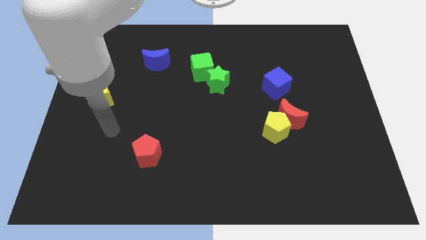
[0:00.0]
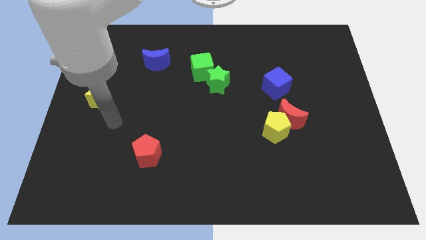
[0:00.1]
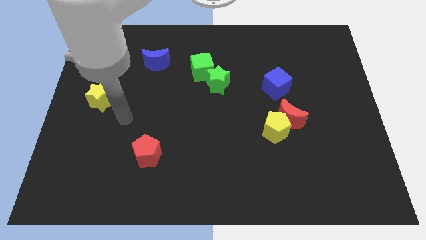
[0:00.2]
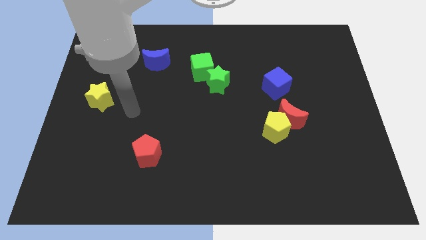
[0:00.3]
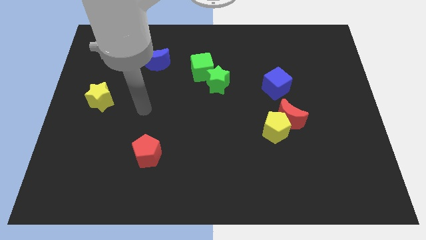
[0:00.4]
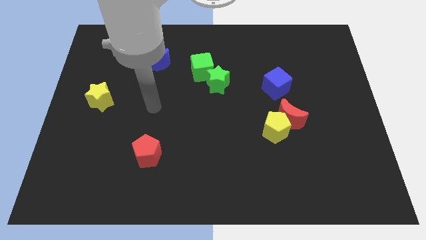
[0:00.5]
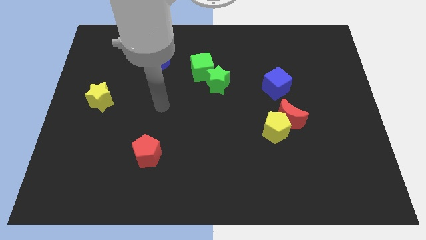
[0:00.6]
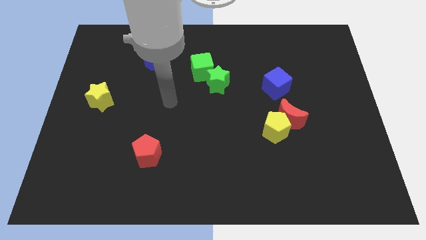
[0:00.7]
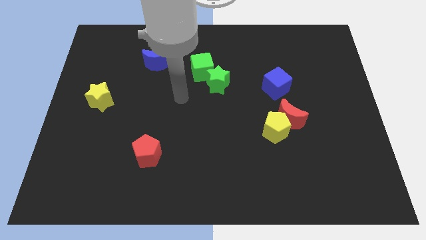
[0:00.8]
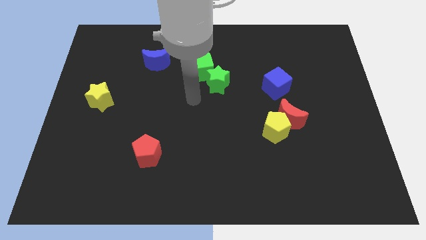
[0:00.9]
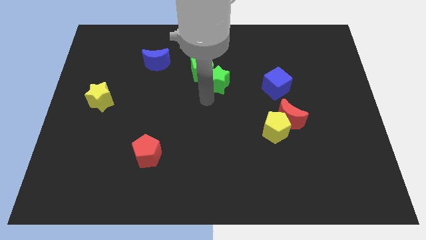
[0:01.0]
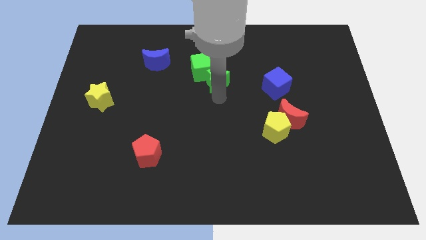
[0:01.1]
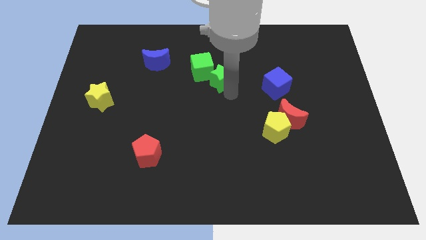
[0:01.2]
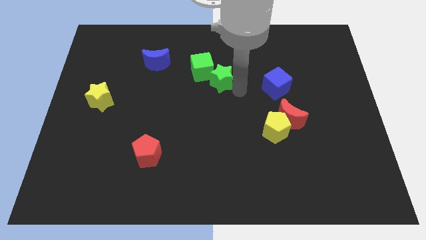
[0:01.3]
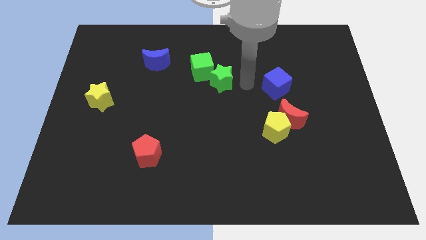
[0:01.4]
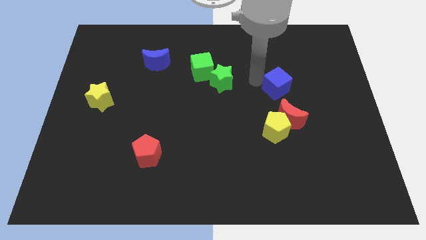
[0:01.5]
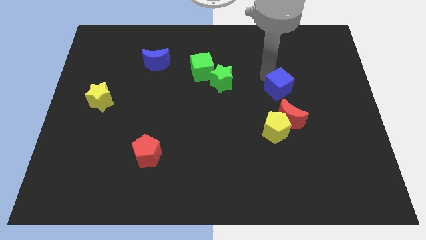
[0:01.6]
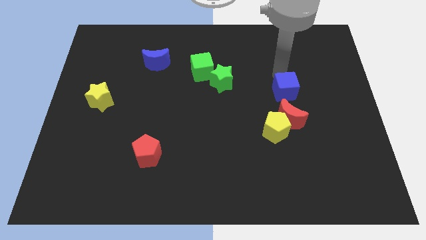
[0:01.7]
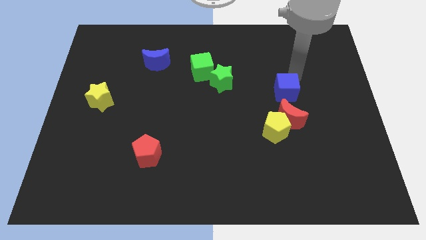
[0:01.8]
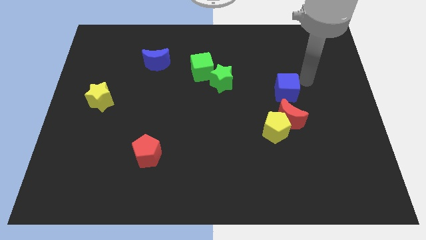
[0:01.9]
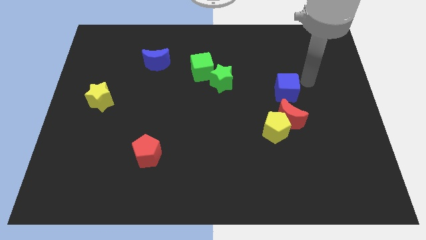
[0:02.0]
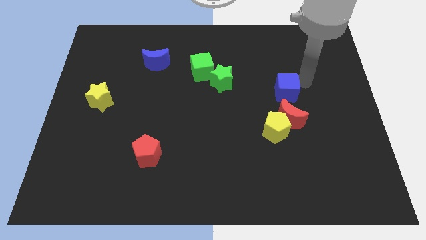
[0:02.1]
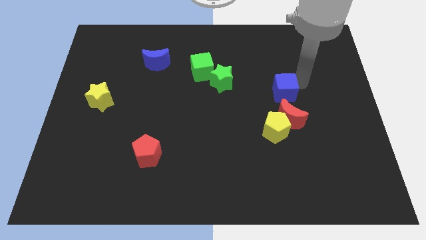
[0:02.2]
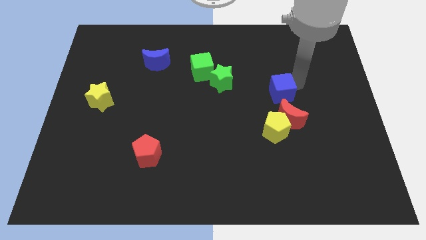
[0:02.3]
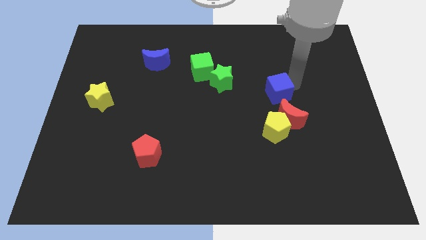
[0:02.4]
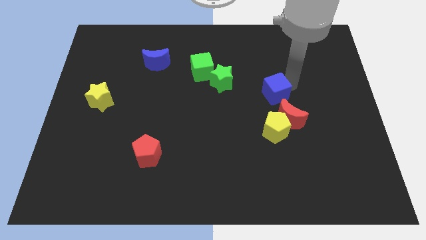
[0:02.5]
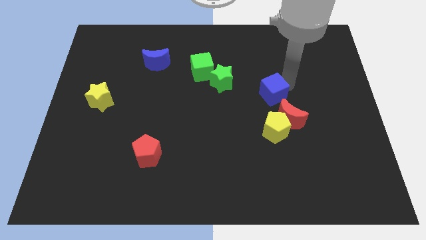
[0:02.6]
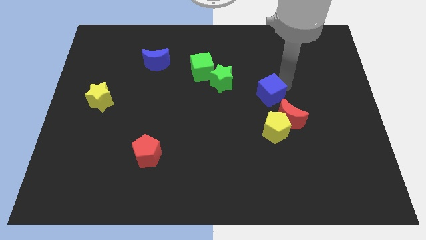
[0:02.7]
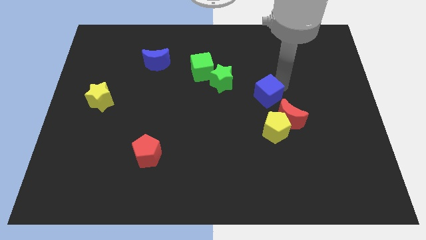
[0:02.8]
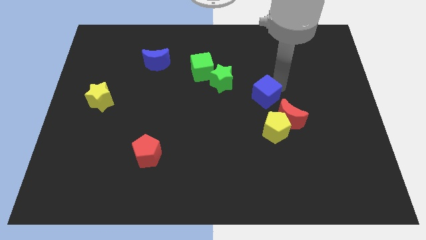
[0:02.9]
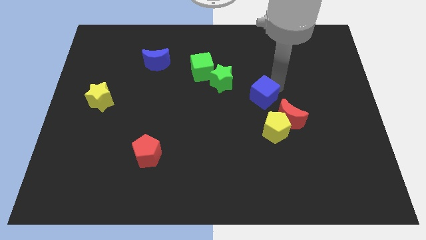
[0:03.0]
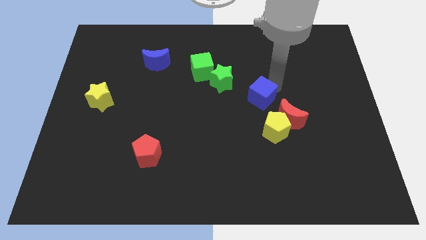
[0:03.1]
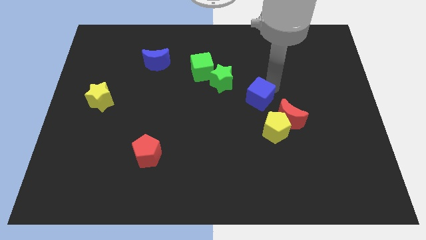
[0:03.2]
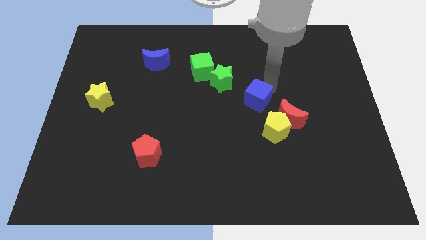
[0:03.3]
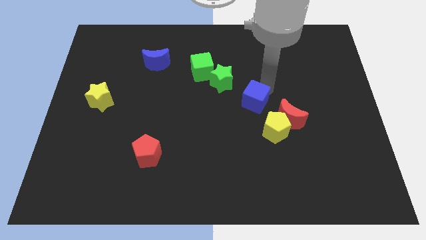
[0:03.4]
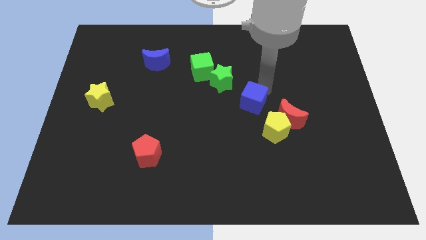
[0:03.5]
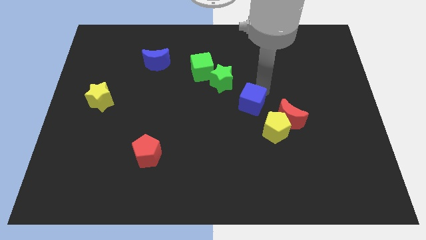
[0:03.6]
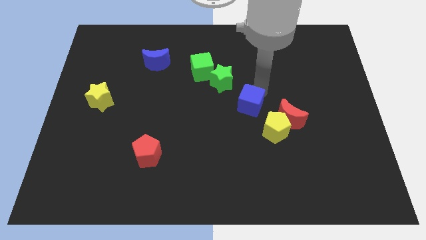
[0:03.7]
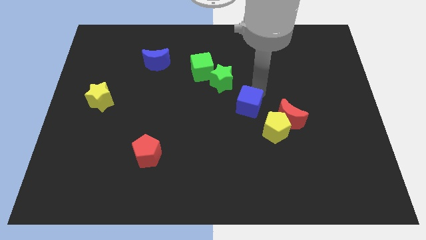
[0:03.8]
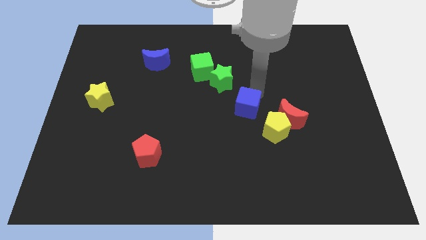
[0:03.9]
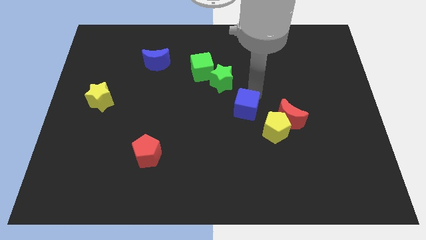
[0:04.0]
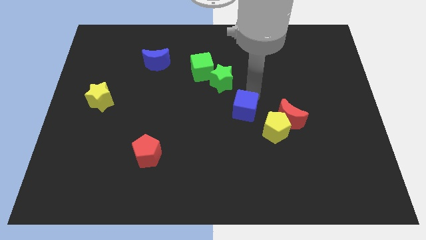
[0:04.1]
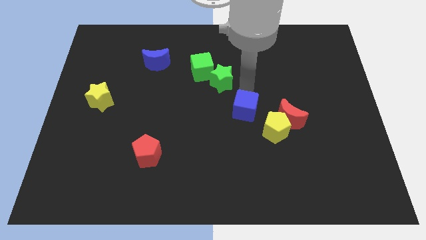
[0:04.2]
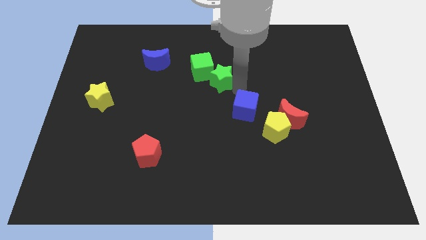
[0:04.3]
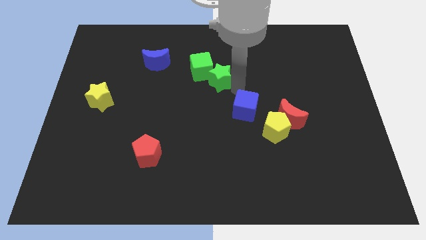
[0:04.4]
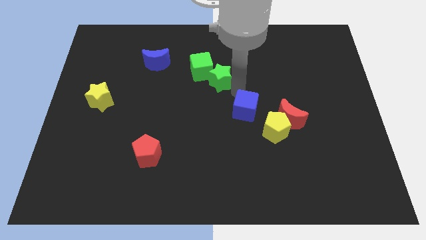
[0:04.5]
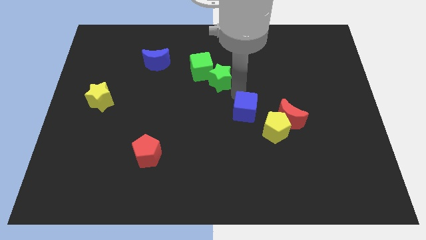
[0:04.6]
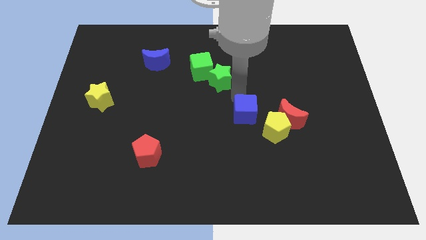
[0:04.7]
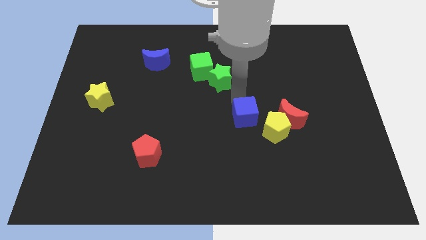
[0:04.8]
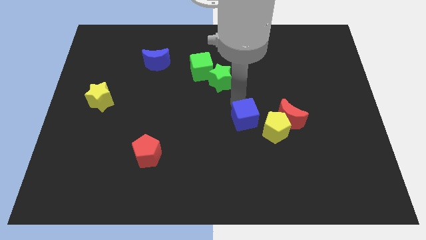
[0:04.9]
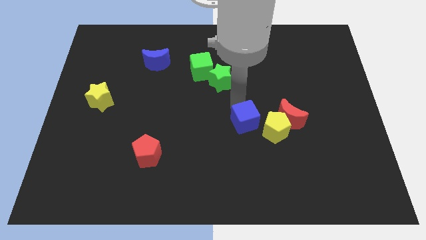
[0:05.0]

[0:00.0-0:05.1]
slightly slide the blue cube down

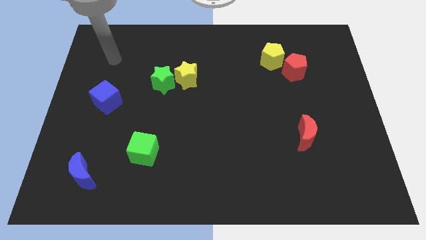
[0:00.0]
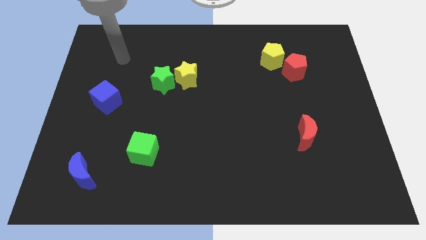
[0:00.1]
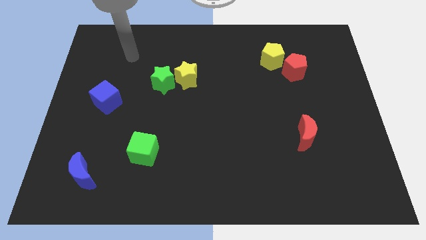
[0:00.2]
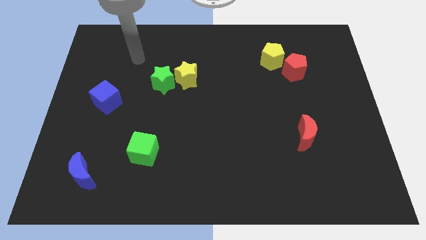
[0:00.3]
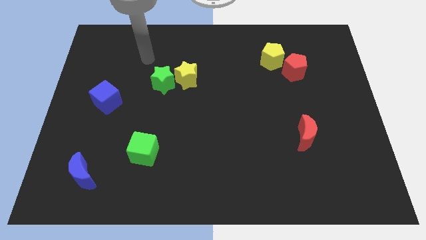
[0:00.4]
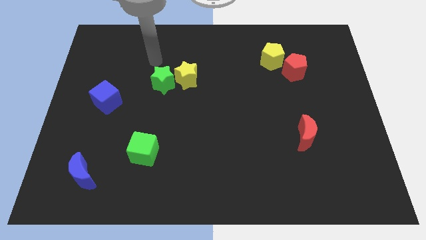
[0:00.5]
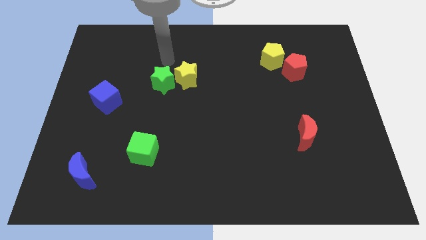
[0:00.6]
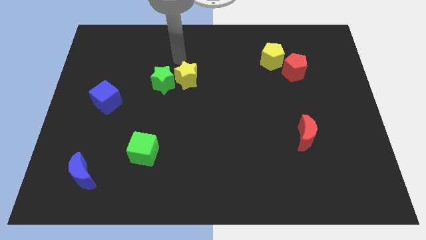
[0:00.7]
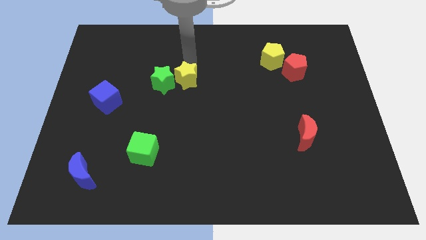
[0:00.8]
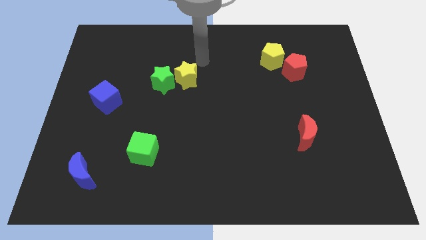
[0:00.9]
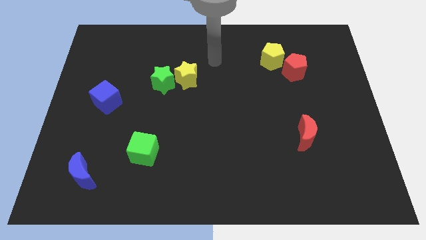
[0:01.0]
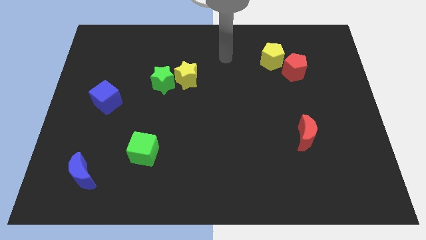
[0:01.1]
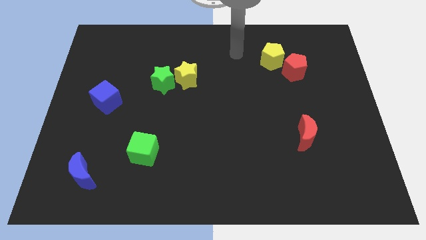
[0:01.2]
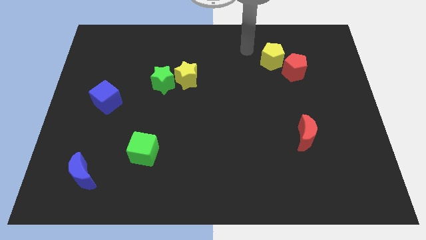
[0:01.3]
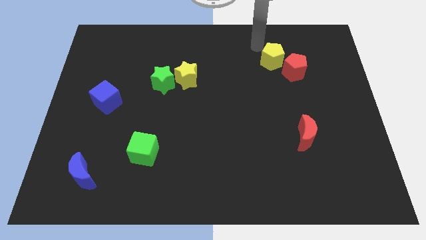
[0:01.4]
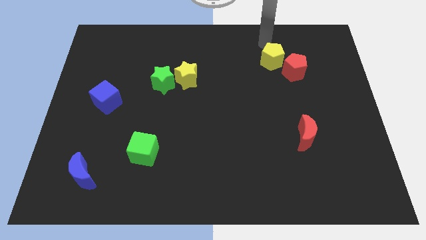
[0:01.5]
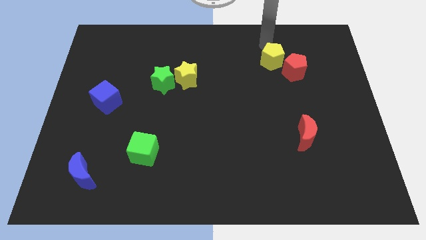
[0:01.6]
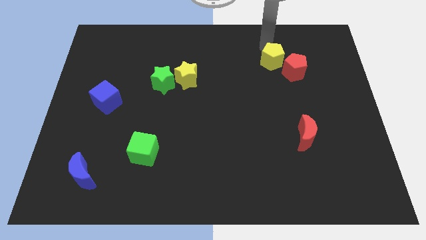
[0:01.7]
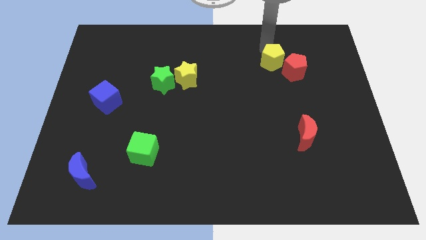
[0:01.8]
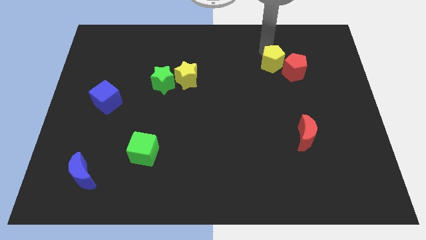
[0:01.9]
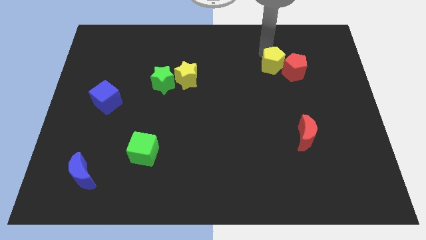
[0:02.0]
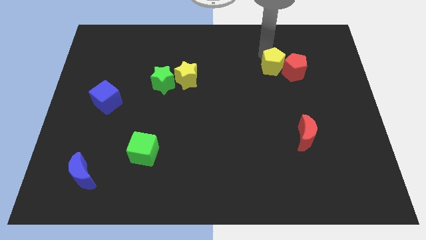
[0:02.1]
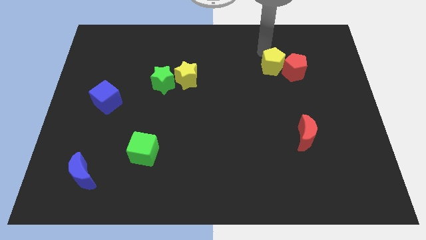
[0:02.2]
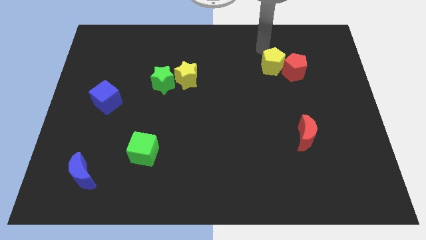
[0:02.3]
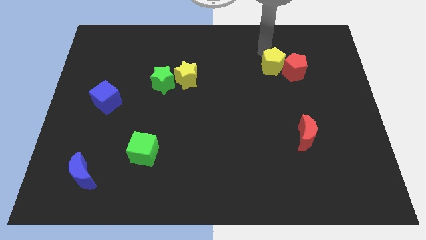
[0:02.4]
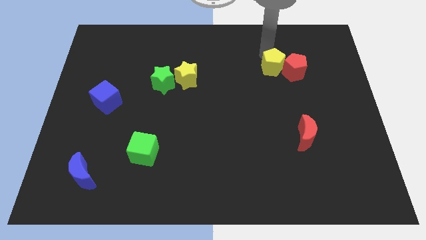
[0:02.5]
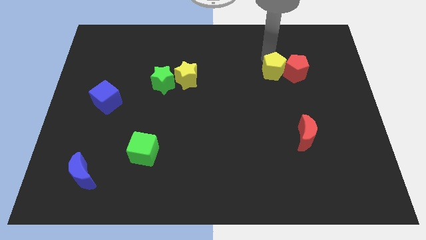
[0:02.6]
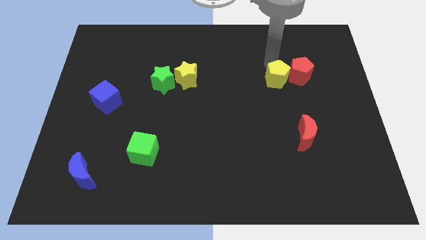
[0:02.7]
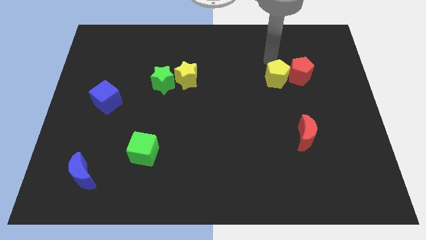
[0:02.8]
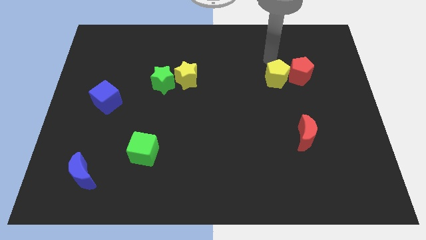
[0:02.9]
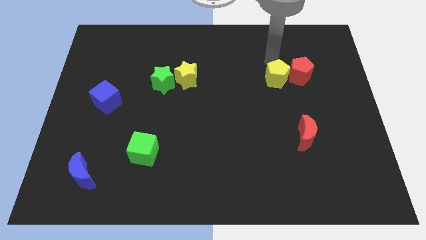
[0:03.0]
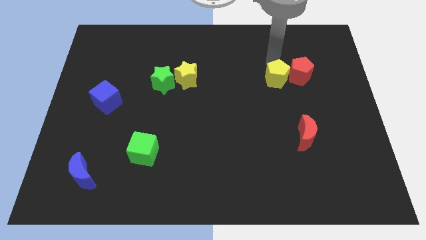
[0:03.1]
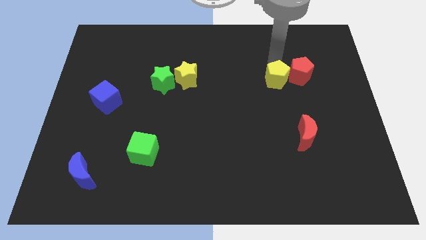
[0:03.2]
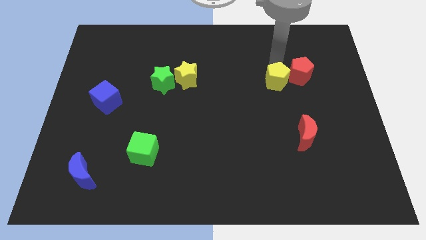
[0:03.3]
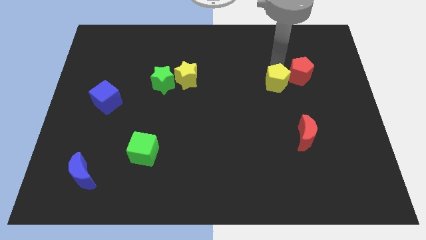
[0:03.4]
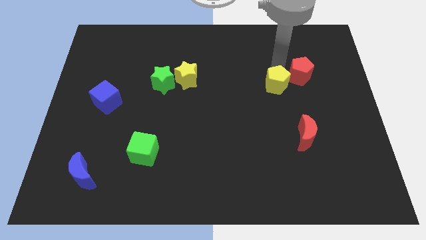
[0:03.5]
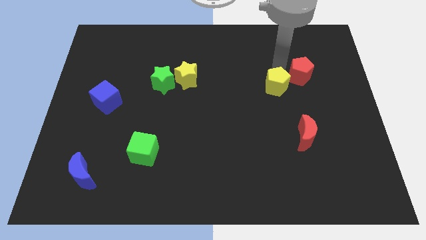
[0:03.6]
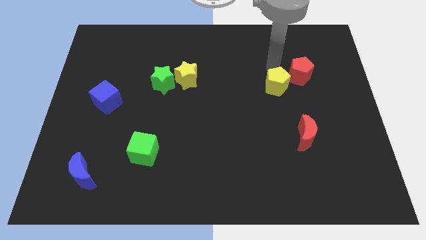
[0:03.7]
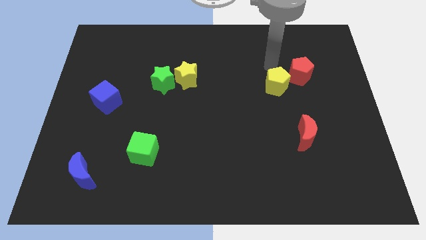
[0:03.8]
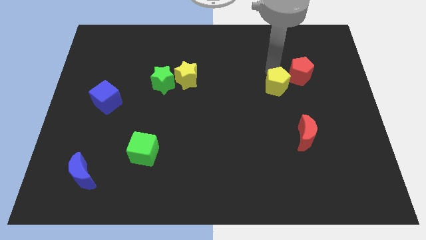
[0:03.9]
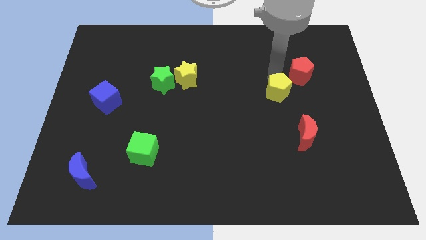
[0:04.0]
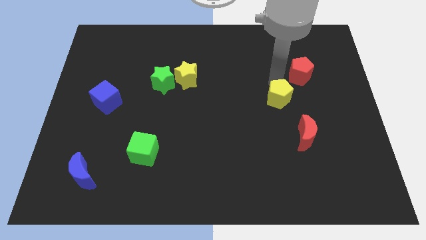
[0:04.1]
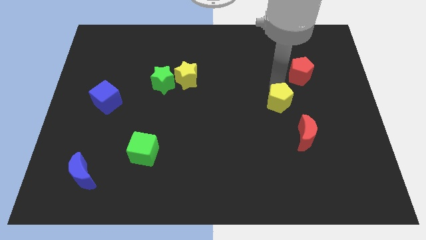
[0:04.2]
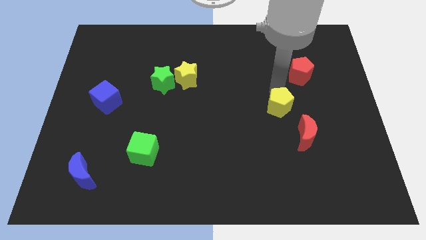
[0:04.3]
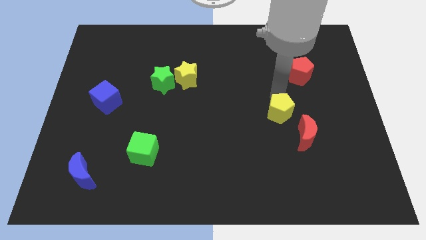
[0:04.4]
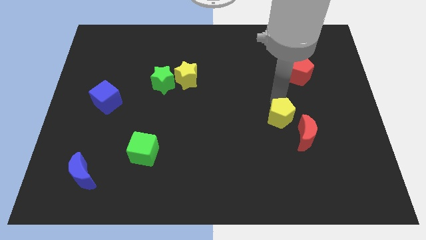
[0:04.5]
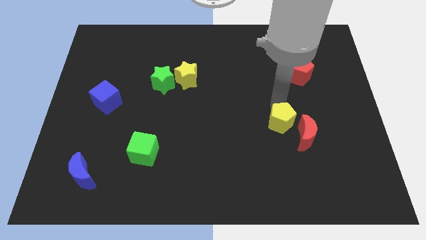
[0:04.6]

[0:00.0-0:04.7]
move the yellow pentagon downwards
